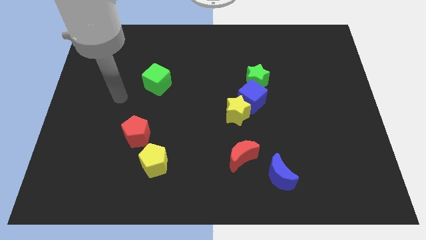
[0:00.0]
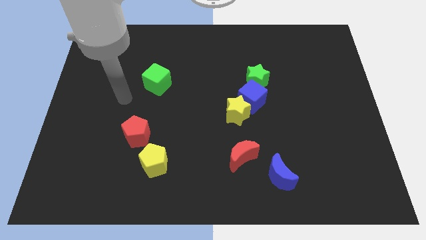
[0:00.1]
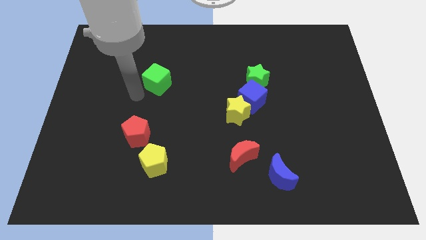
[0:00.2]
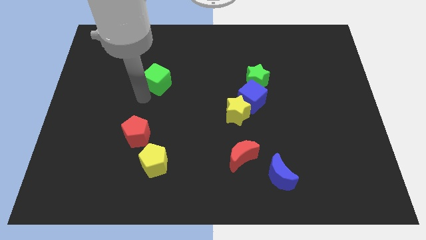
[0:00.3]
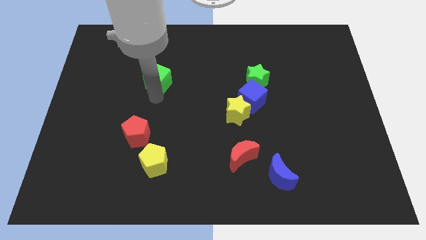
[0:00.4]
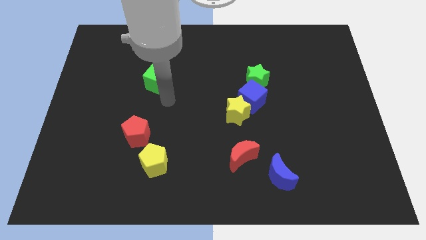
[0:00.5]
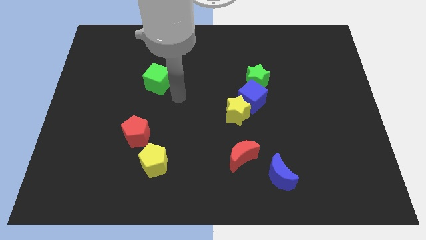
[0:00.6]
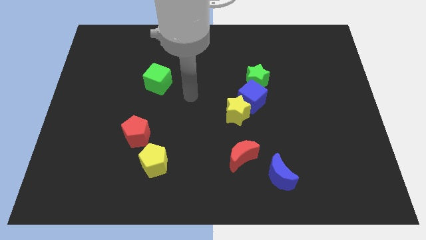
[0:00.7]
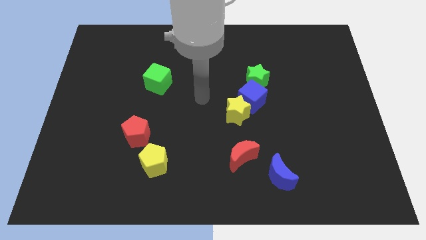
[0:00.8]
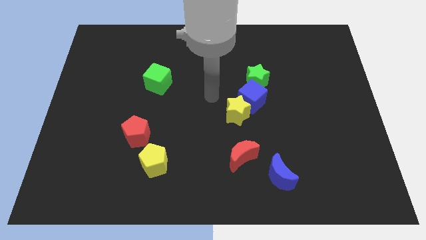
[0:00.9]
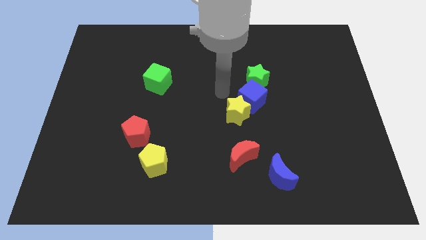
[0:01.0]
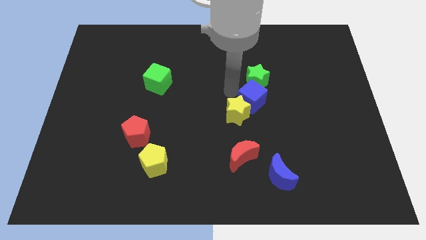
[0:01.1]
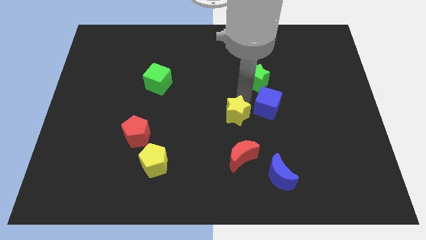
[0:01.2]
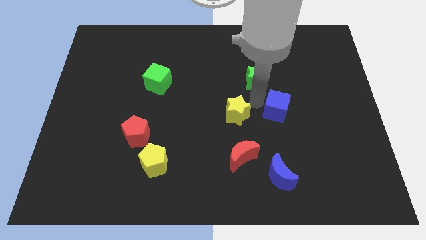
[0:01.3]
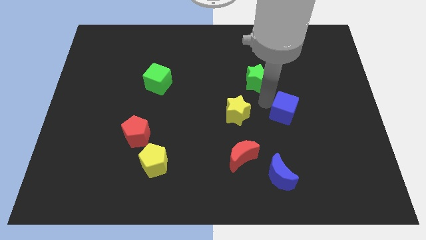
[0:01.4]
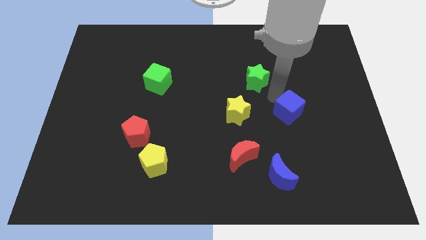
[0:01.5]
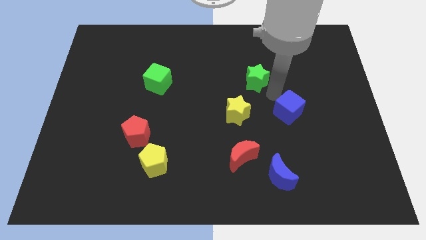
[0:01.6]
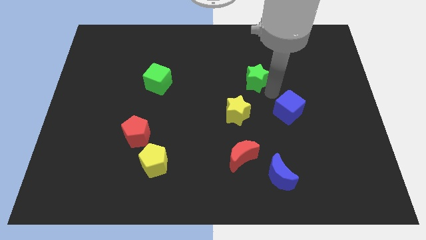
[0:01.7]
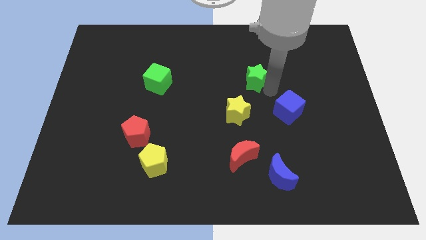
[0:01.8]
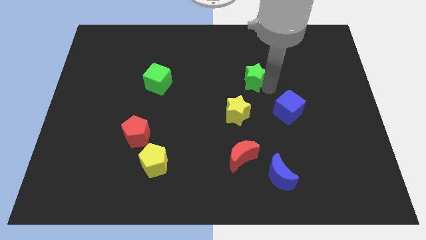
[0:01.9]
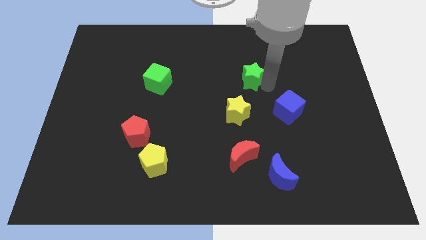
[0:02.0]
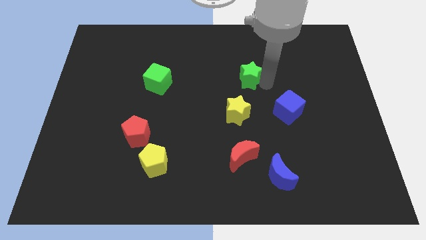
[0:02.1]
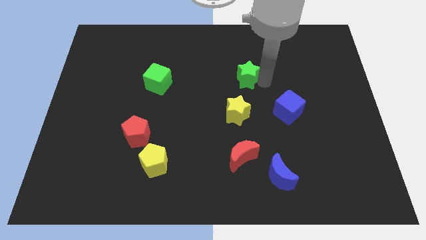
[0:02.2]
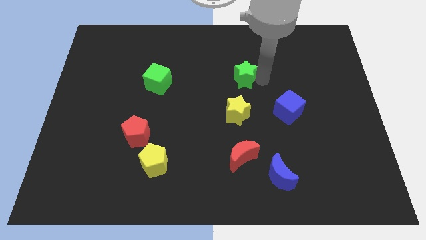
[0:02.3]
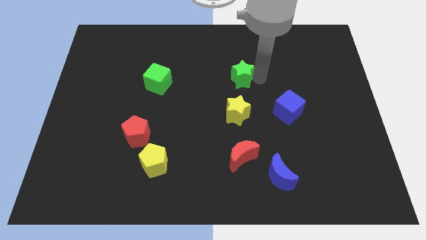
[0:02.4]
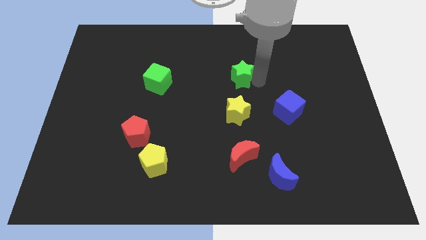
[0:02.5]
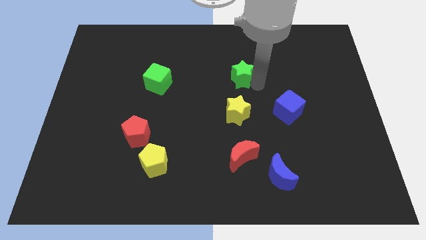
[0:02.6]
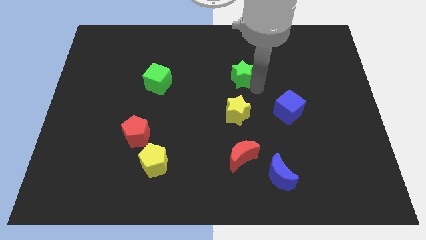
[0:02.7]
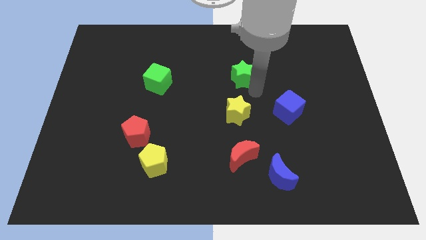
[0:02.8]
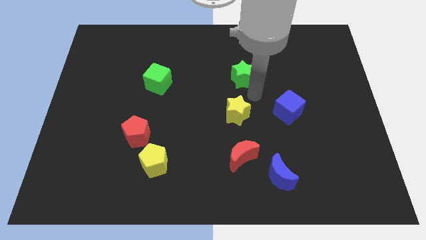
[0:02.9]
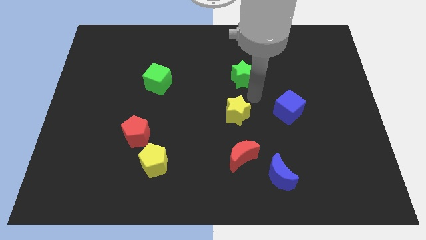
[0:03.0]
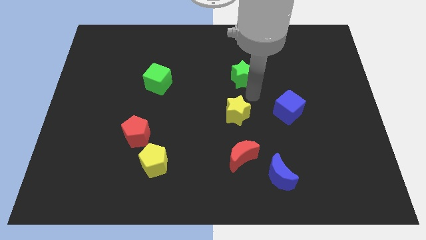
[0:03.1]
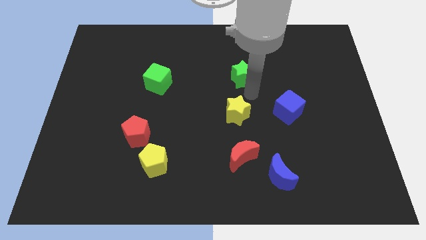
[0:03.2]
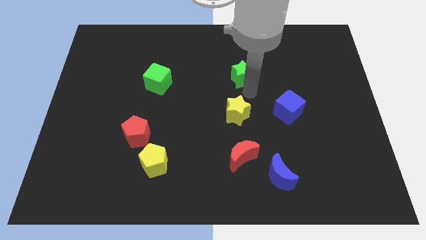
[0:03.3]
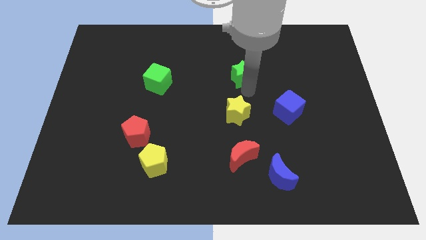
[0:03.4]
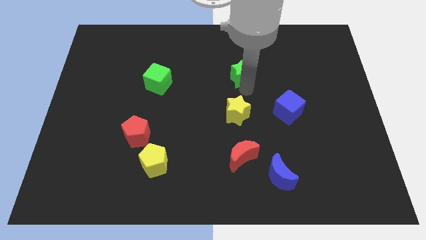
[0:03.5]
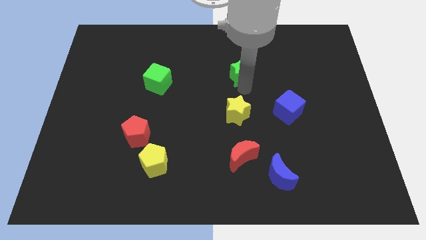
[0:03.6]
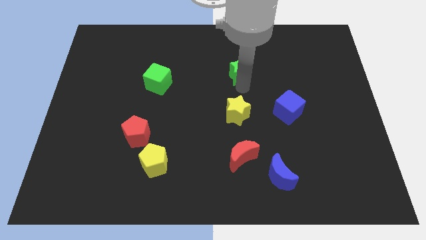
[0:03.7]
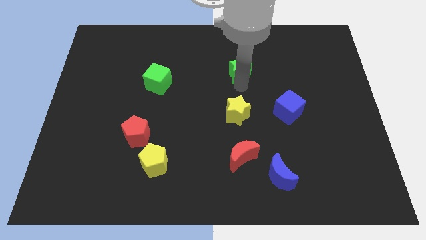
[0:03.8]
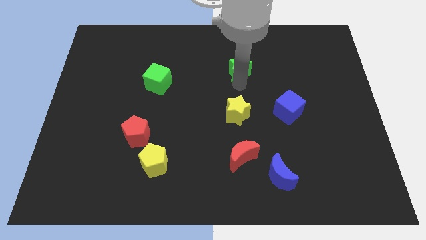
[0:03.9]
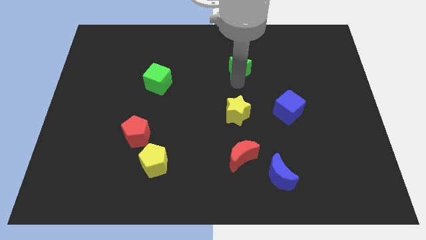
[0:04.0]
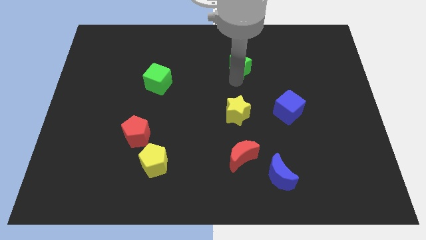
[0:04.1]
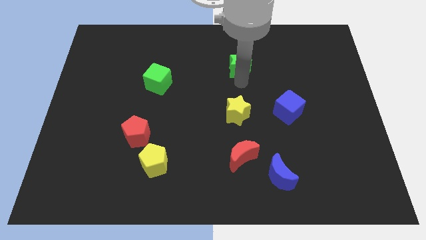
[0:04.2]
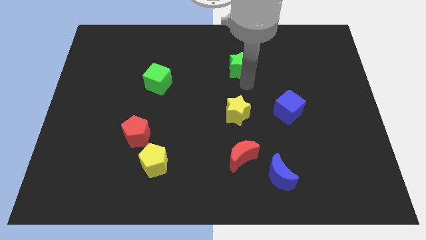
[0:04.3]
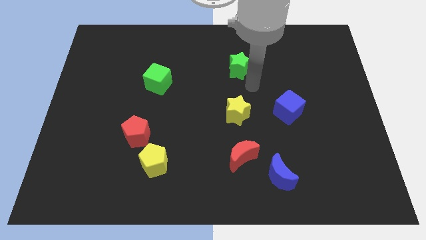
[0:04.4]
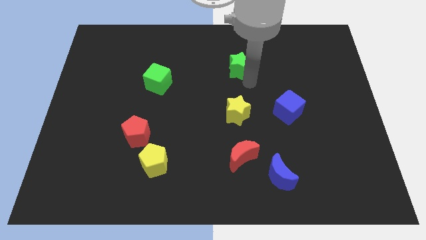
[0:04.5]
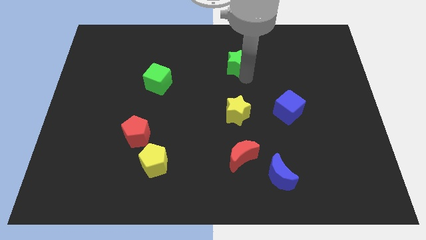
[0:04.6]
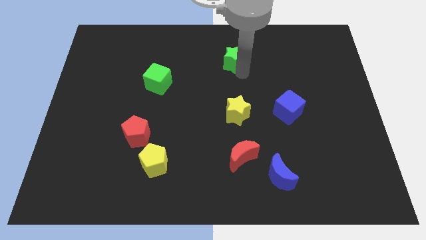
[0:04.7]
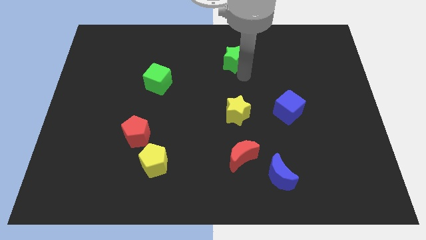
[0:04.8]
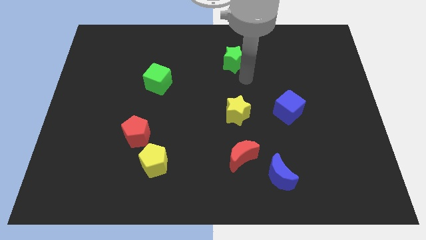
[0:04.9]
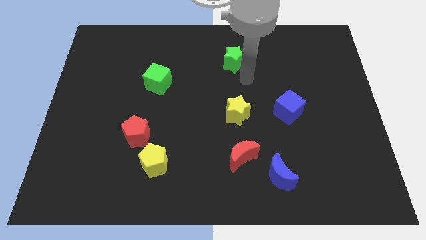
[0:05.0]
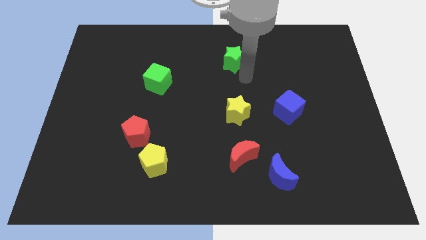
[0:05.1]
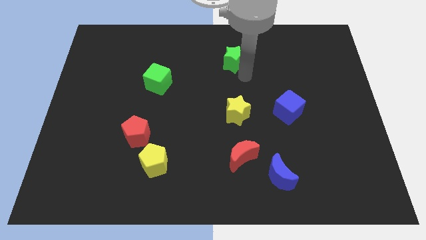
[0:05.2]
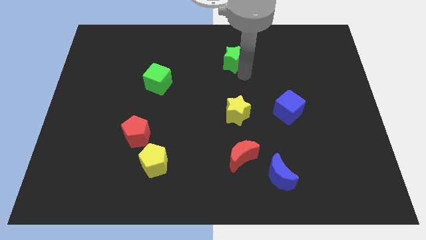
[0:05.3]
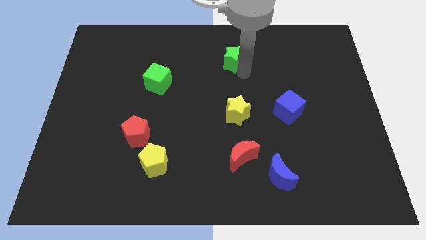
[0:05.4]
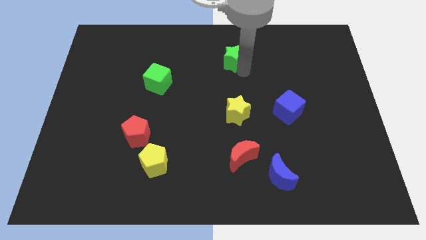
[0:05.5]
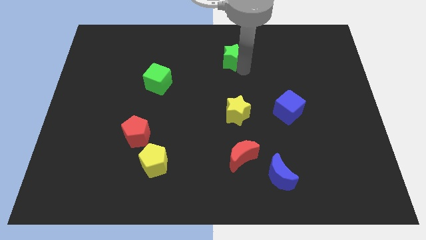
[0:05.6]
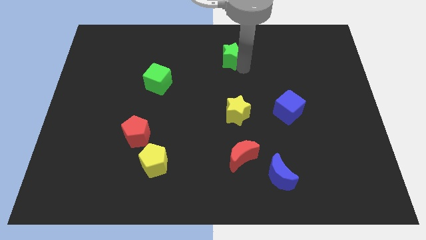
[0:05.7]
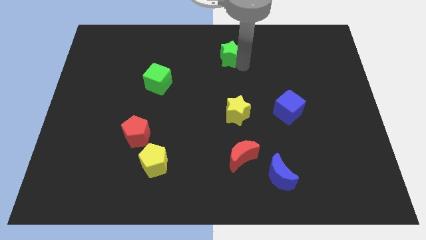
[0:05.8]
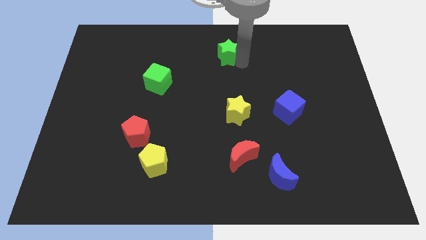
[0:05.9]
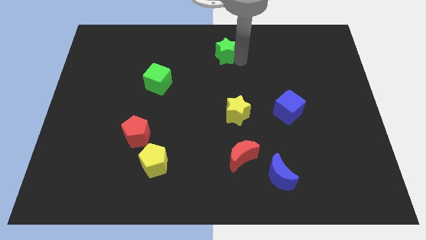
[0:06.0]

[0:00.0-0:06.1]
put the green star to the top
